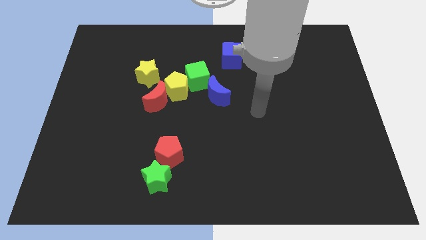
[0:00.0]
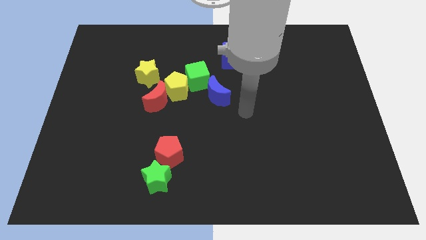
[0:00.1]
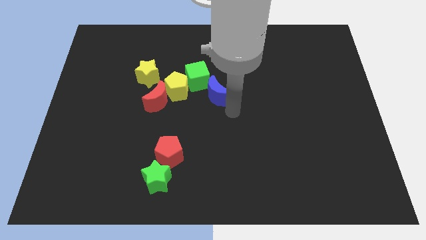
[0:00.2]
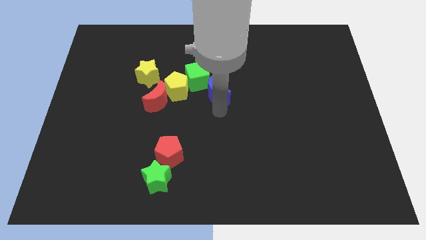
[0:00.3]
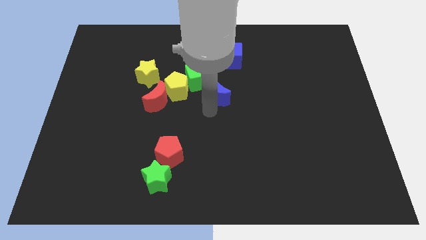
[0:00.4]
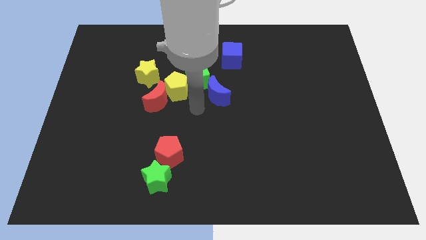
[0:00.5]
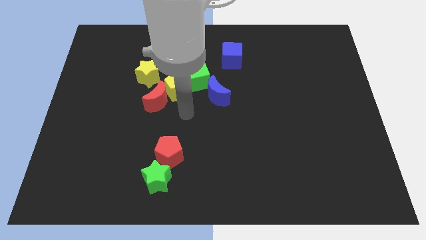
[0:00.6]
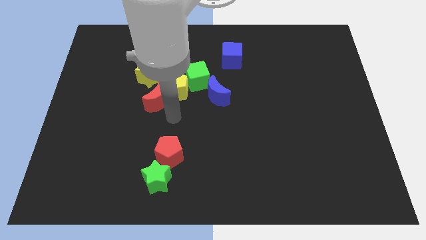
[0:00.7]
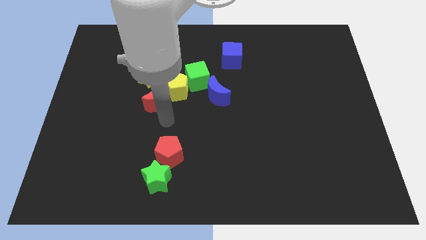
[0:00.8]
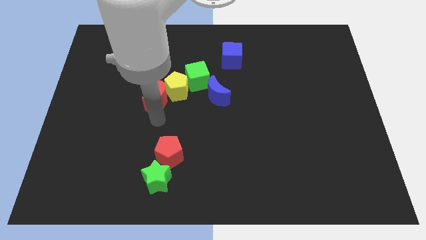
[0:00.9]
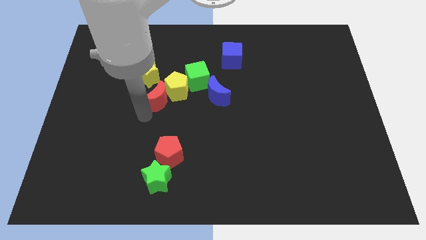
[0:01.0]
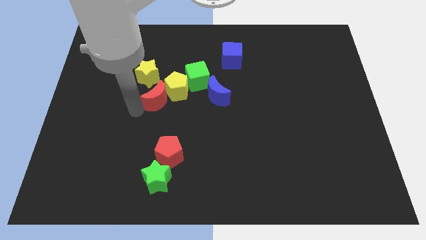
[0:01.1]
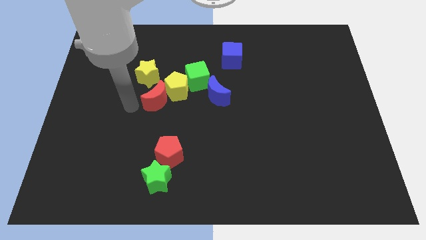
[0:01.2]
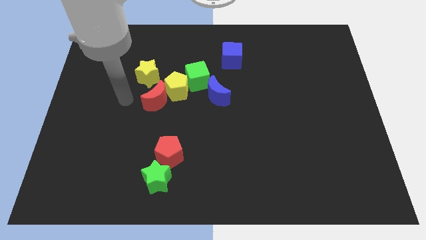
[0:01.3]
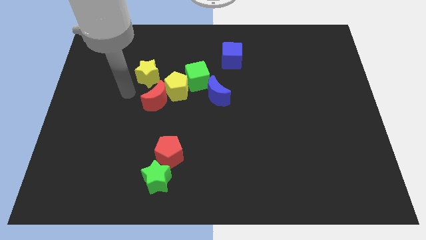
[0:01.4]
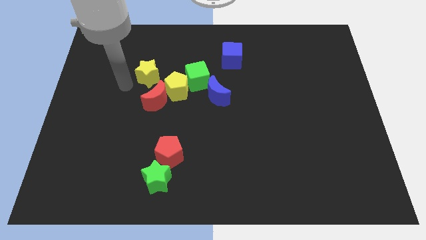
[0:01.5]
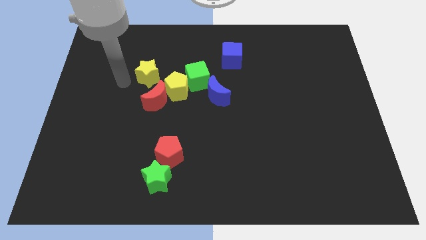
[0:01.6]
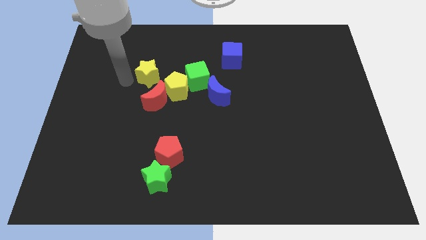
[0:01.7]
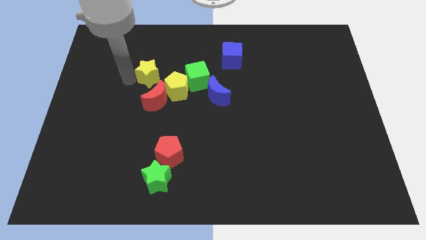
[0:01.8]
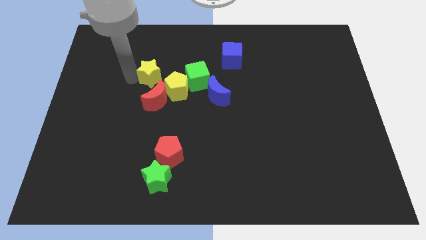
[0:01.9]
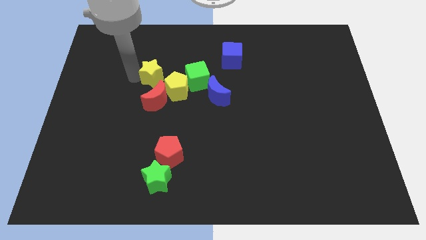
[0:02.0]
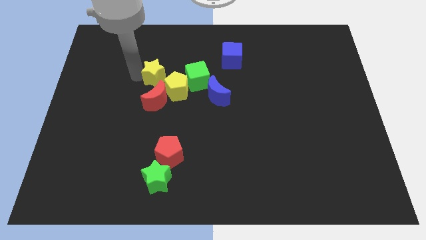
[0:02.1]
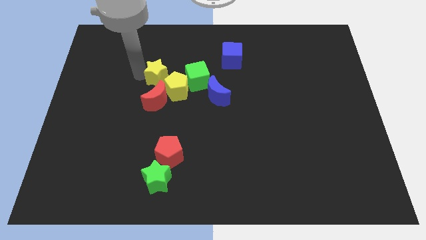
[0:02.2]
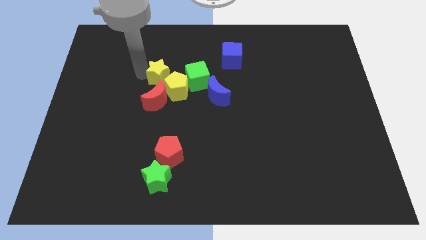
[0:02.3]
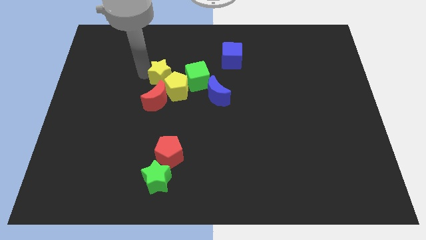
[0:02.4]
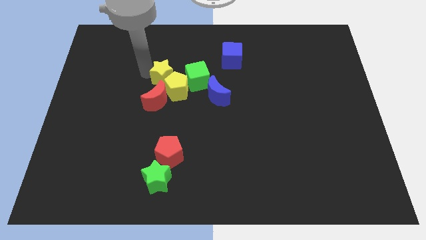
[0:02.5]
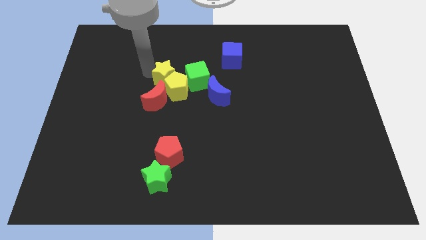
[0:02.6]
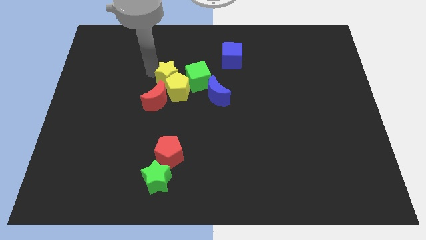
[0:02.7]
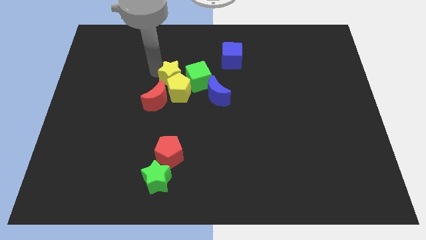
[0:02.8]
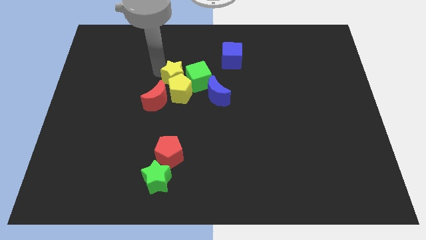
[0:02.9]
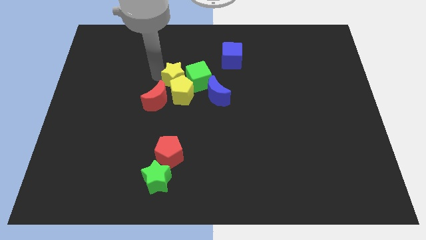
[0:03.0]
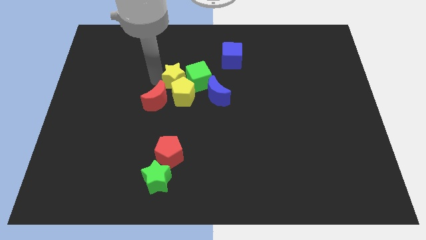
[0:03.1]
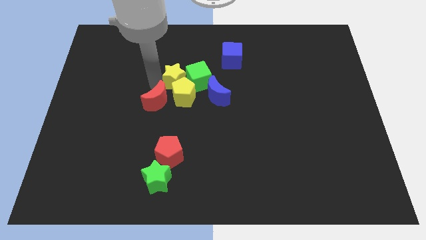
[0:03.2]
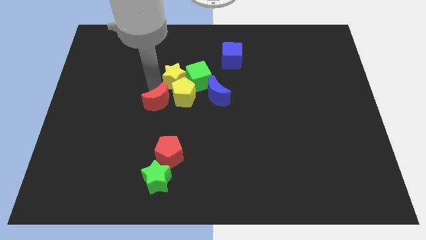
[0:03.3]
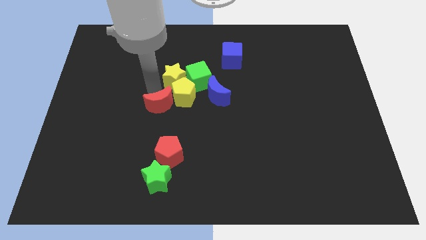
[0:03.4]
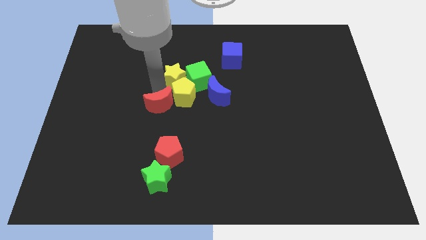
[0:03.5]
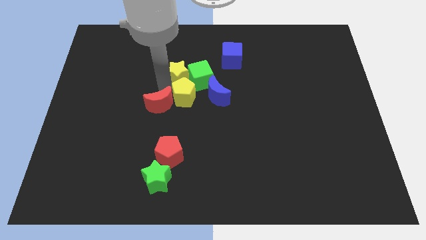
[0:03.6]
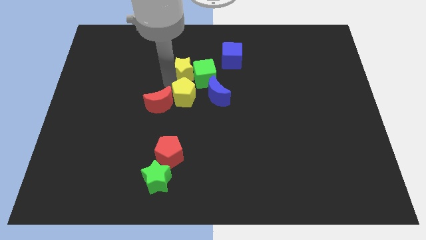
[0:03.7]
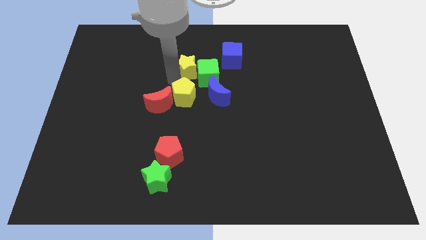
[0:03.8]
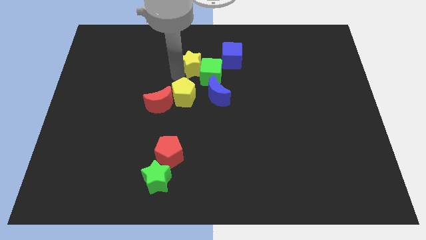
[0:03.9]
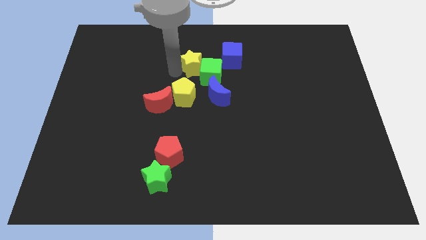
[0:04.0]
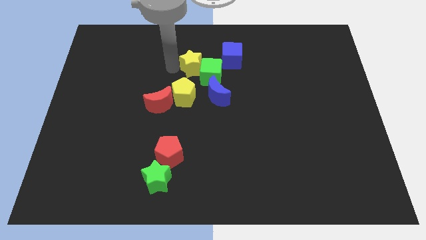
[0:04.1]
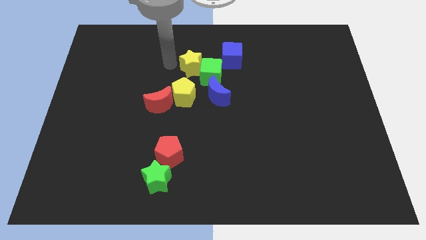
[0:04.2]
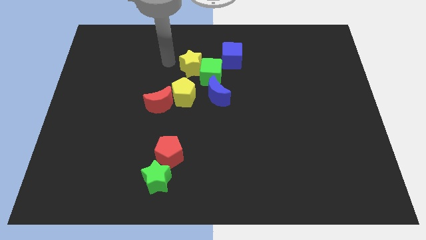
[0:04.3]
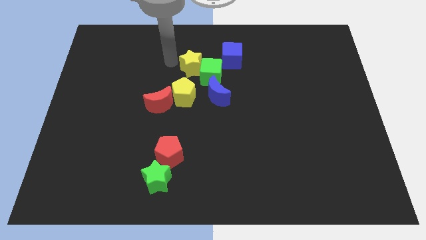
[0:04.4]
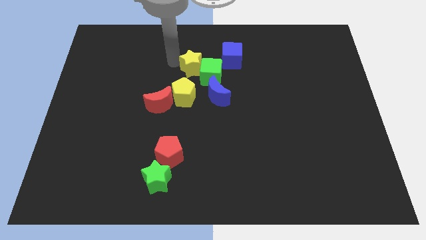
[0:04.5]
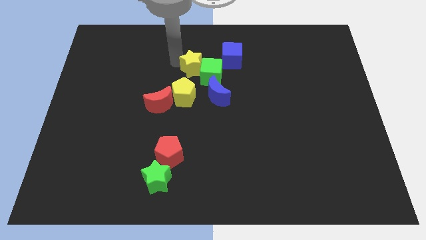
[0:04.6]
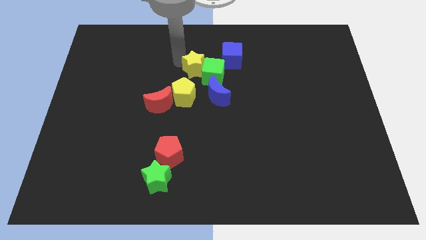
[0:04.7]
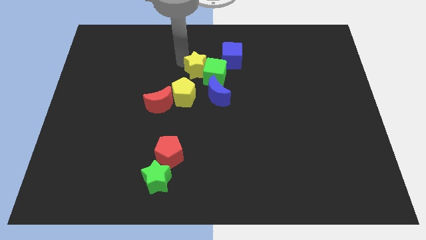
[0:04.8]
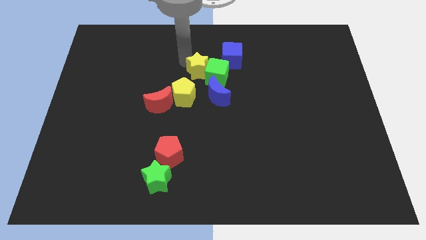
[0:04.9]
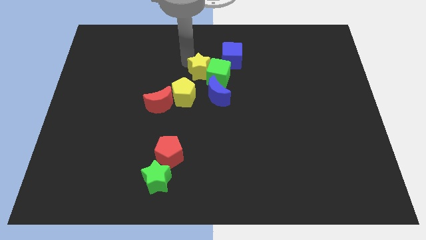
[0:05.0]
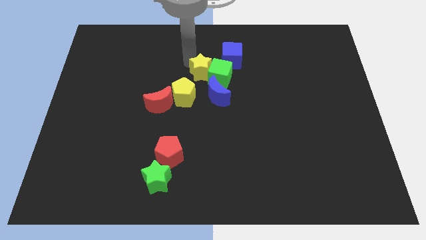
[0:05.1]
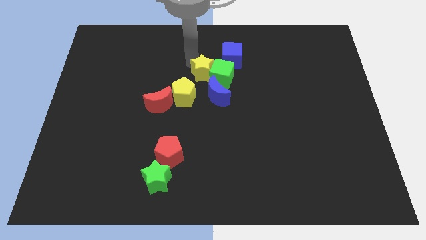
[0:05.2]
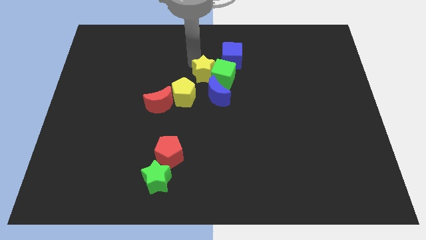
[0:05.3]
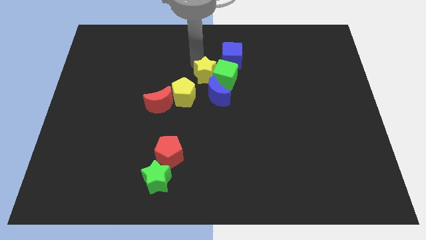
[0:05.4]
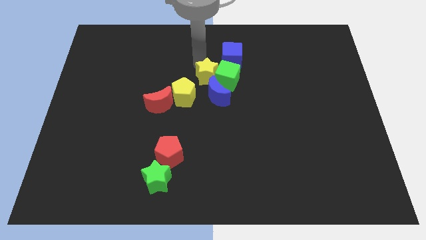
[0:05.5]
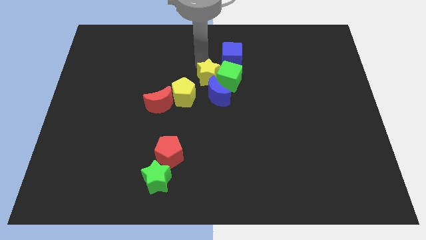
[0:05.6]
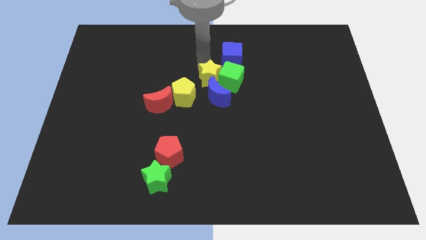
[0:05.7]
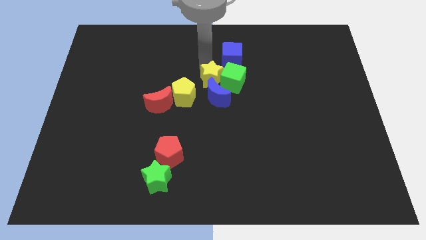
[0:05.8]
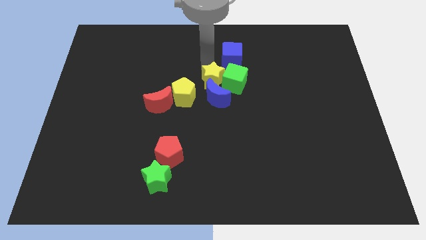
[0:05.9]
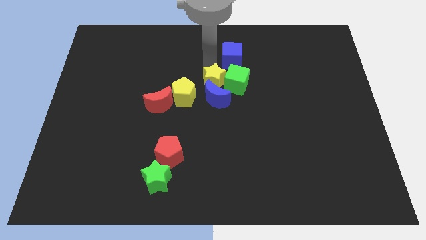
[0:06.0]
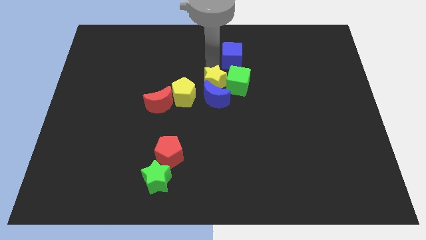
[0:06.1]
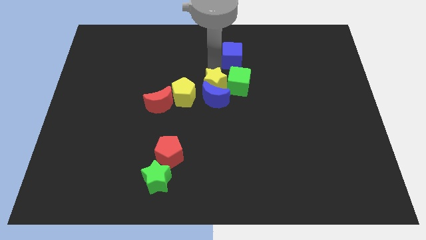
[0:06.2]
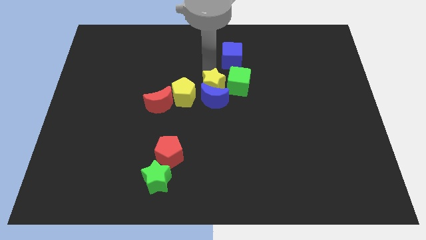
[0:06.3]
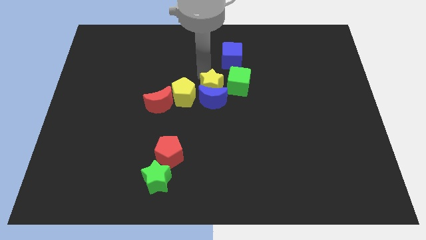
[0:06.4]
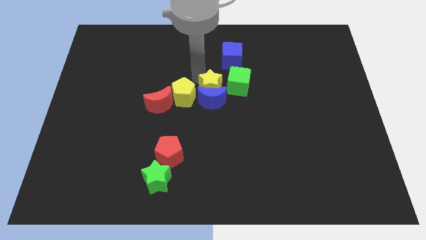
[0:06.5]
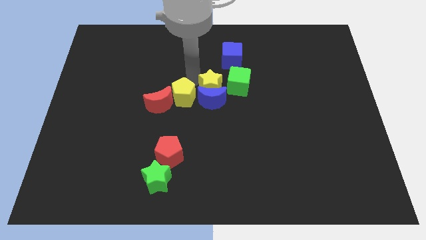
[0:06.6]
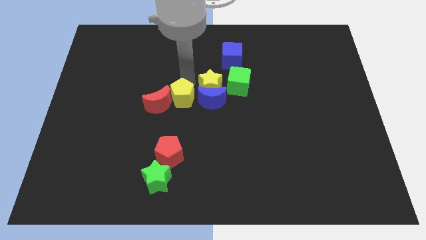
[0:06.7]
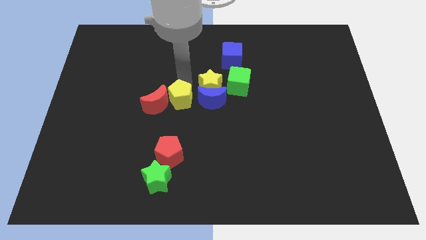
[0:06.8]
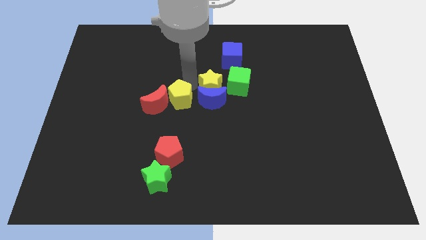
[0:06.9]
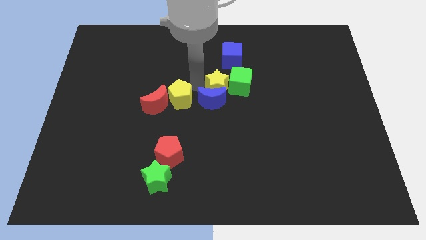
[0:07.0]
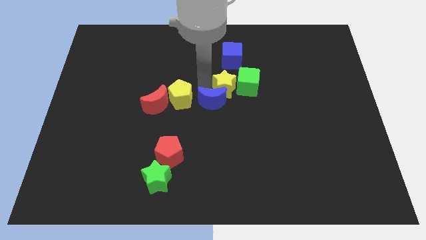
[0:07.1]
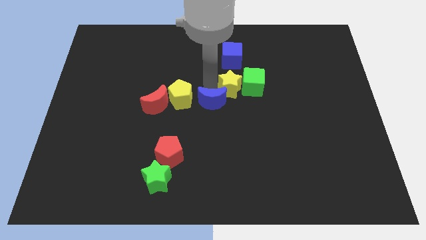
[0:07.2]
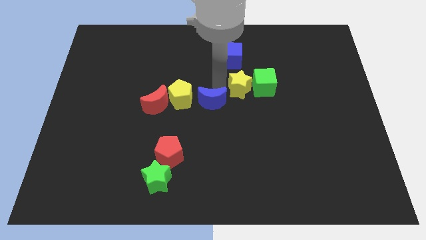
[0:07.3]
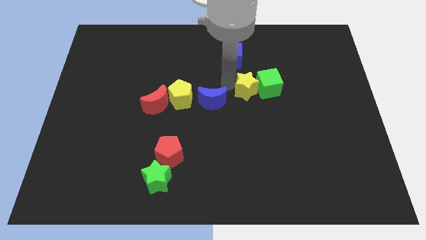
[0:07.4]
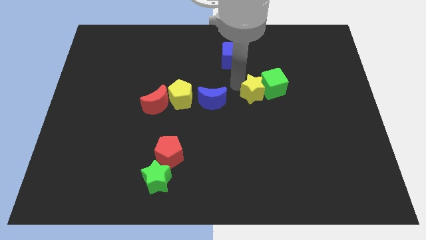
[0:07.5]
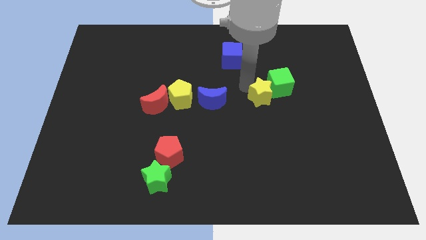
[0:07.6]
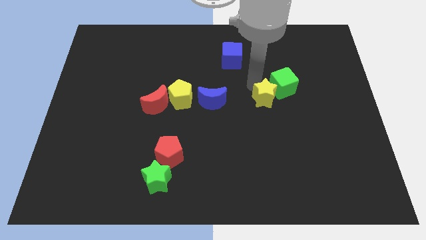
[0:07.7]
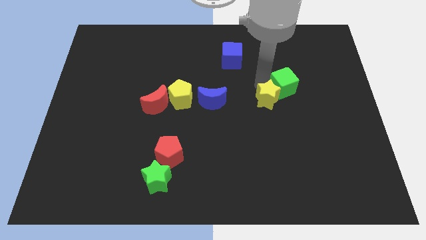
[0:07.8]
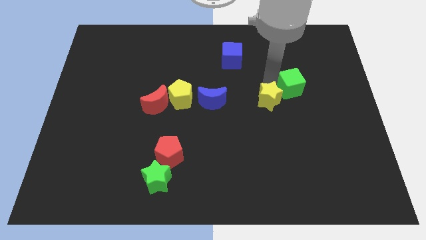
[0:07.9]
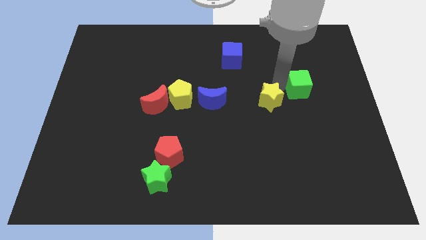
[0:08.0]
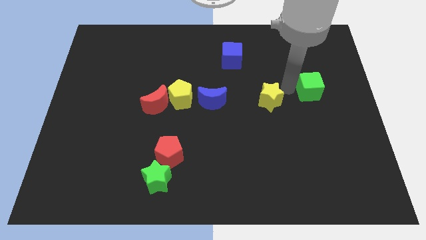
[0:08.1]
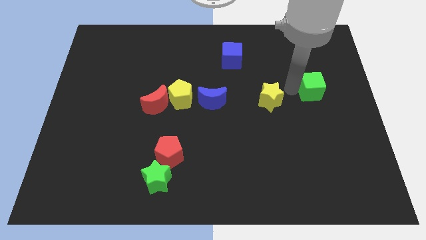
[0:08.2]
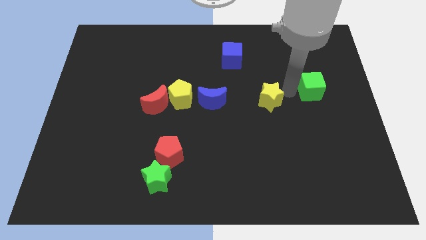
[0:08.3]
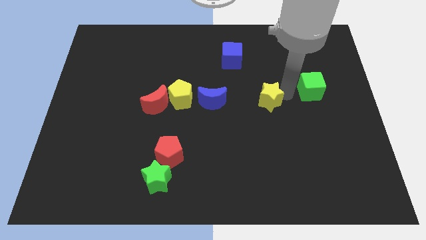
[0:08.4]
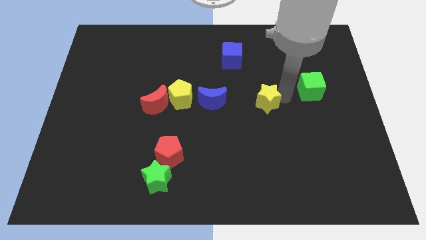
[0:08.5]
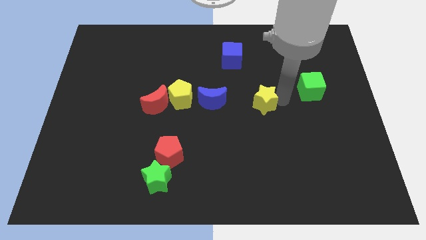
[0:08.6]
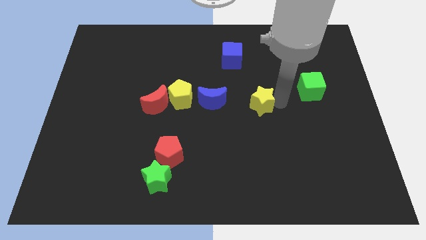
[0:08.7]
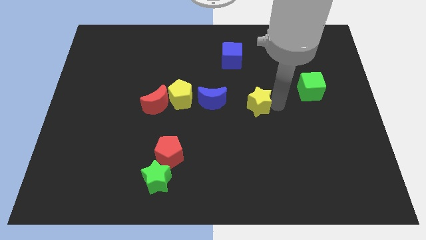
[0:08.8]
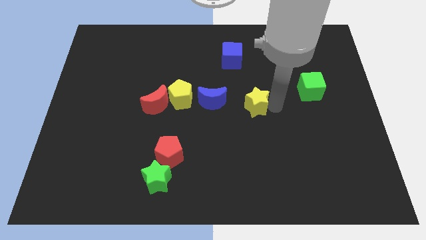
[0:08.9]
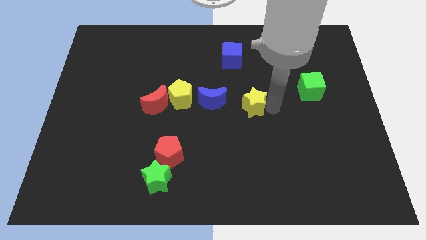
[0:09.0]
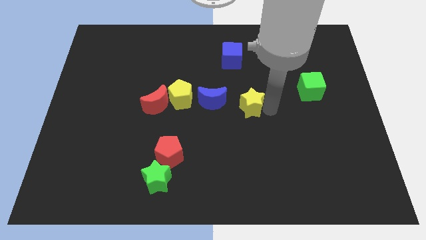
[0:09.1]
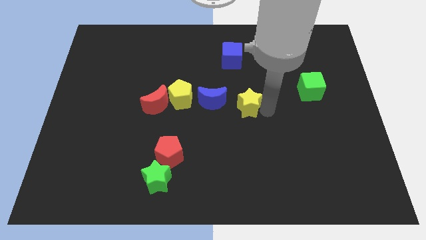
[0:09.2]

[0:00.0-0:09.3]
move the yellow star to the bottom right side of the blue moon
